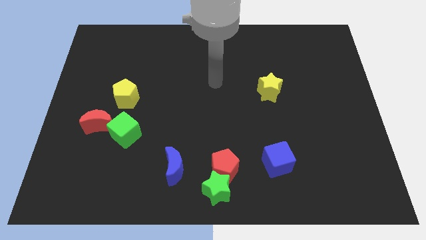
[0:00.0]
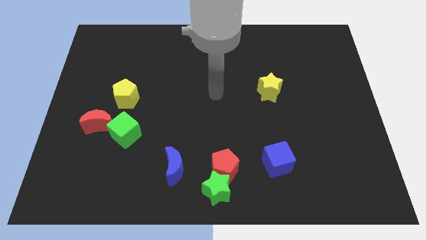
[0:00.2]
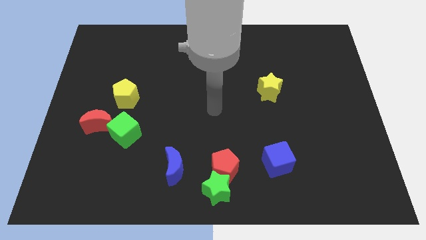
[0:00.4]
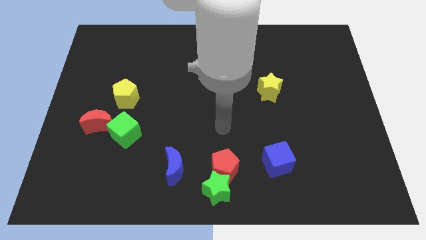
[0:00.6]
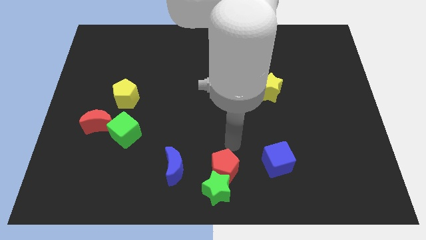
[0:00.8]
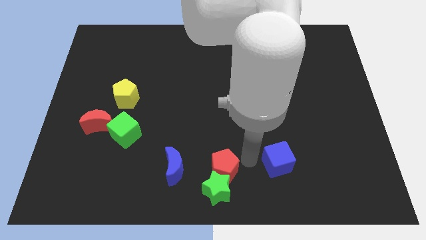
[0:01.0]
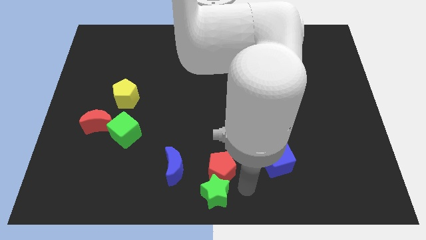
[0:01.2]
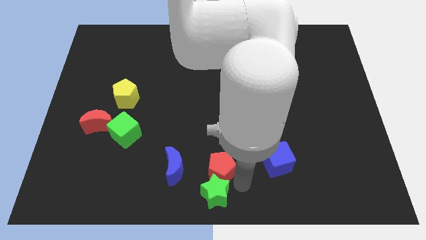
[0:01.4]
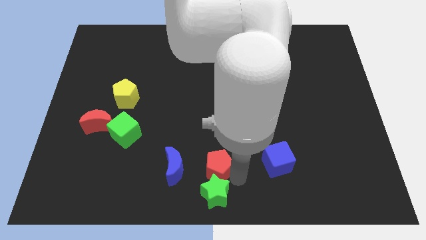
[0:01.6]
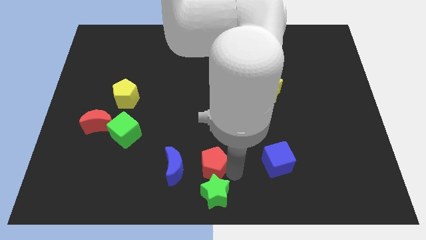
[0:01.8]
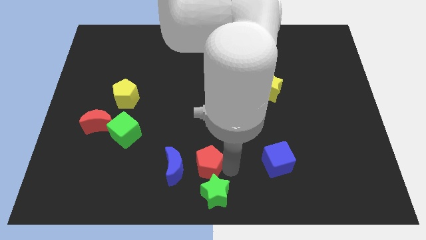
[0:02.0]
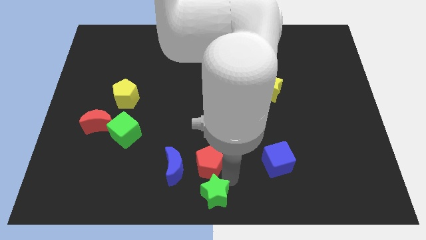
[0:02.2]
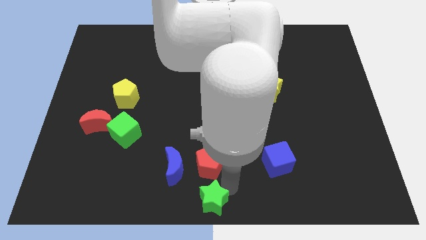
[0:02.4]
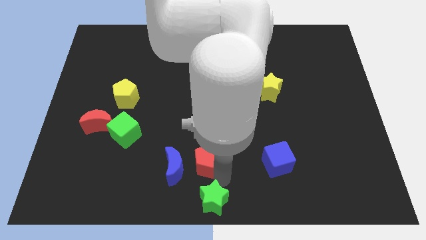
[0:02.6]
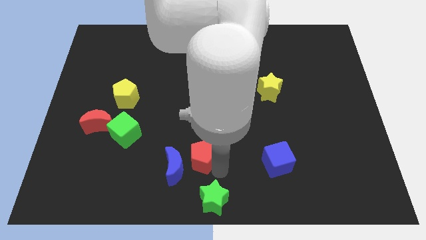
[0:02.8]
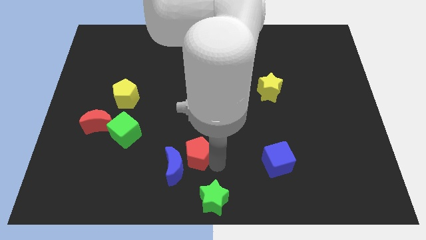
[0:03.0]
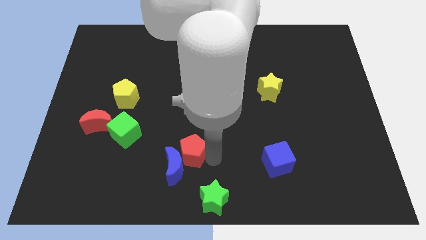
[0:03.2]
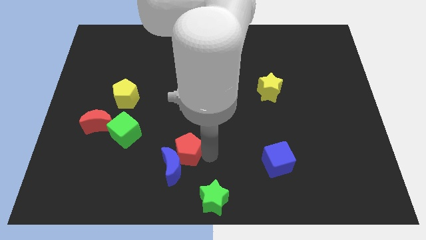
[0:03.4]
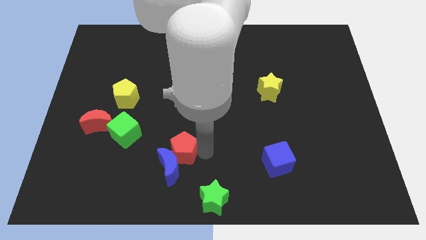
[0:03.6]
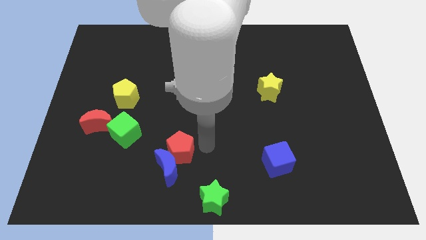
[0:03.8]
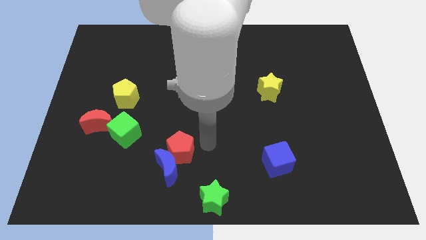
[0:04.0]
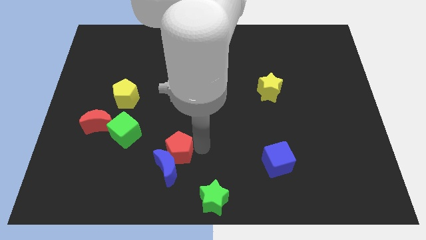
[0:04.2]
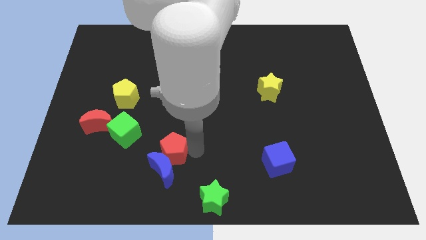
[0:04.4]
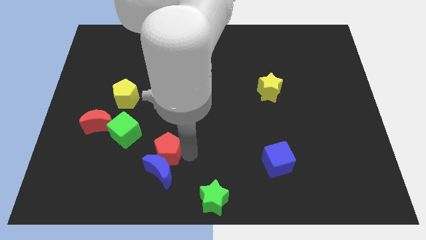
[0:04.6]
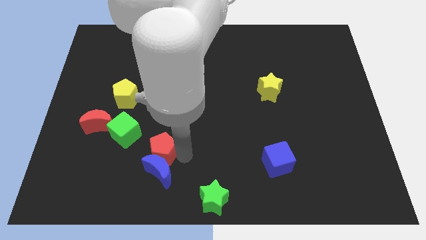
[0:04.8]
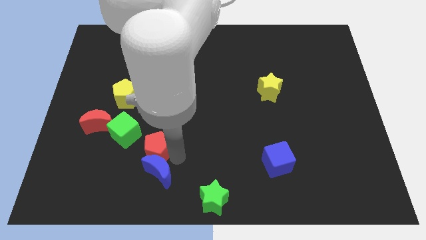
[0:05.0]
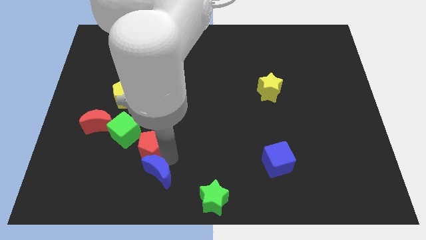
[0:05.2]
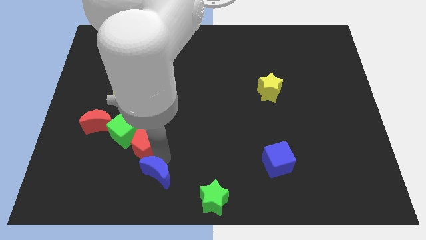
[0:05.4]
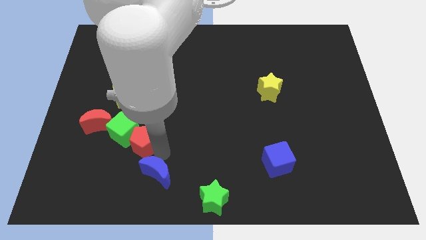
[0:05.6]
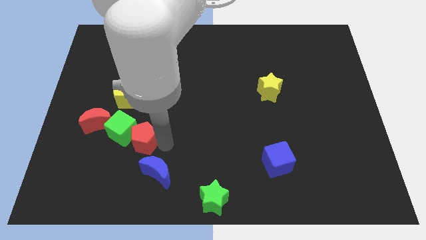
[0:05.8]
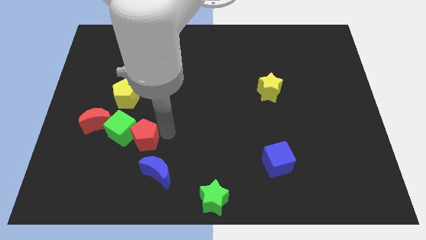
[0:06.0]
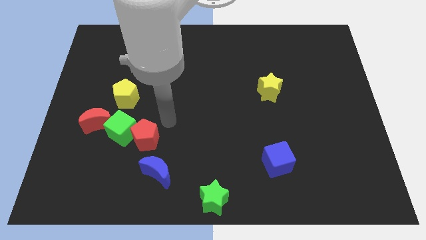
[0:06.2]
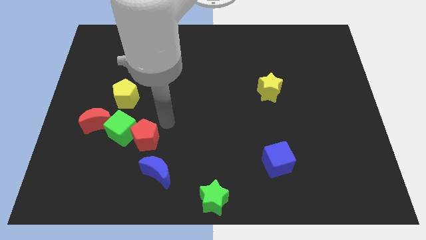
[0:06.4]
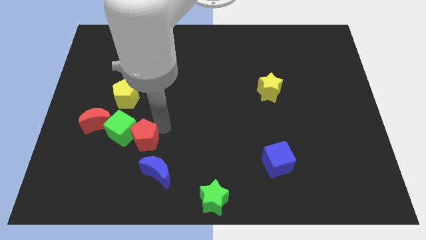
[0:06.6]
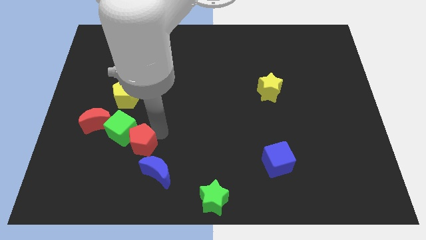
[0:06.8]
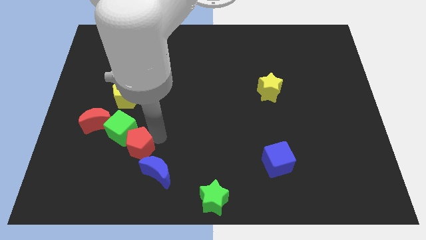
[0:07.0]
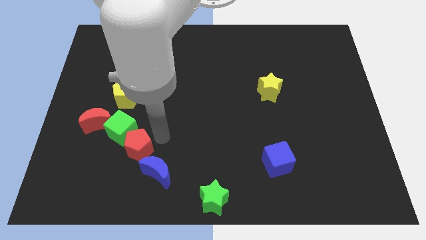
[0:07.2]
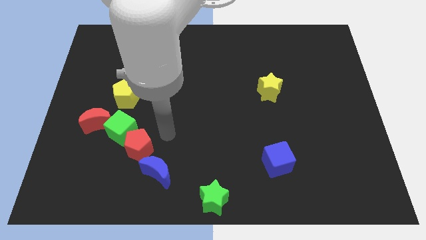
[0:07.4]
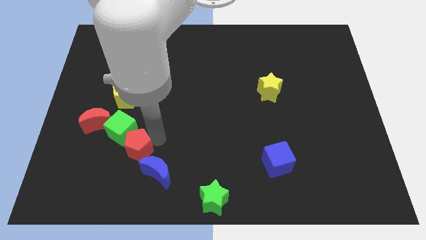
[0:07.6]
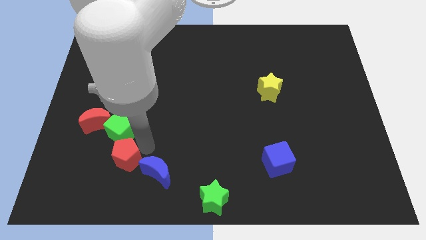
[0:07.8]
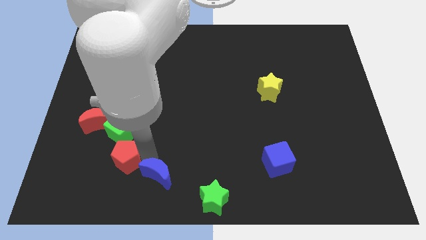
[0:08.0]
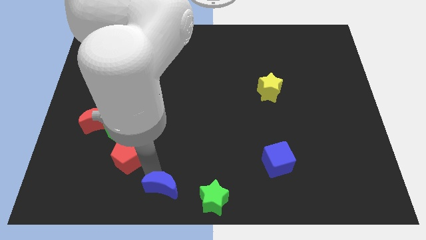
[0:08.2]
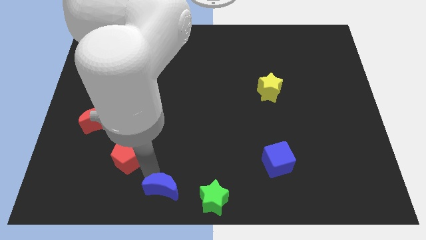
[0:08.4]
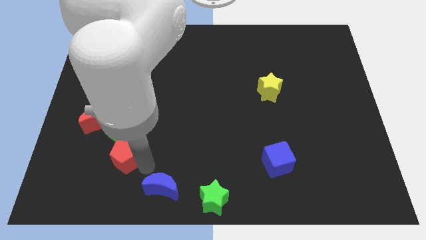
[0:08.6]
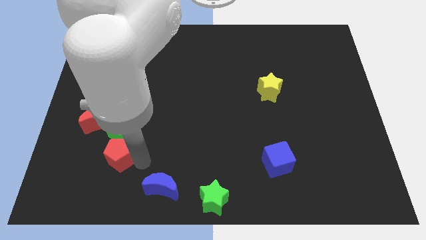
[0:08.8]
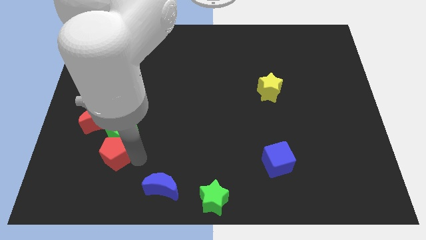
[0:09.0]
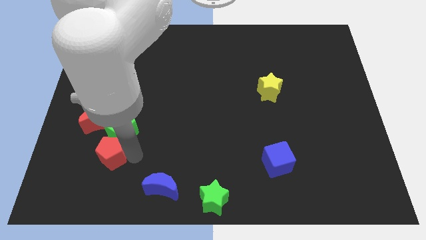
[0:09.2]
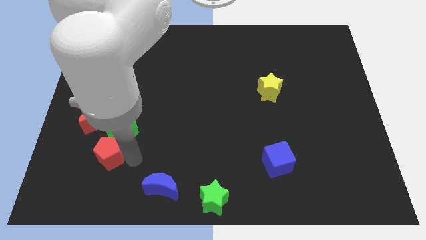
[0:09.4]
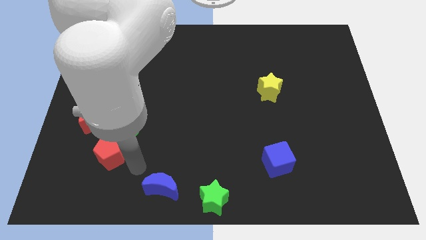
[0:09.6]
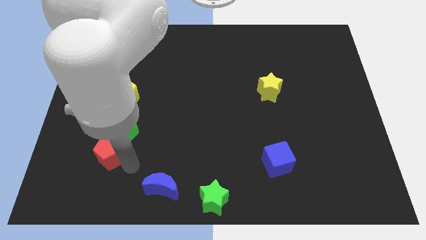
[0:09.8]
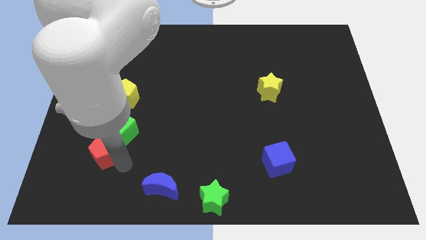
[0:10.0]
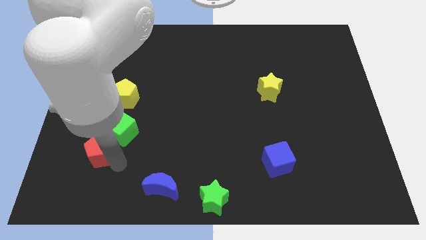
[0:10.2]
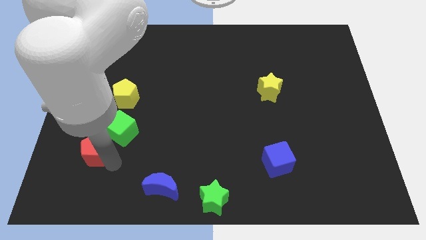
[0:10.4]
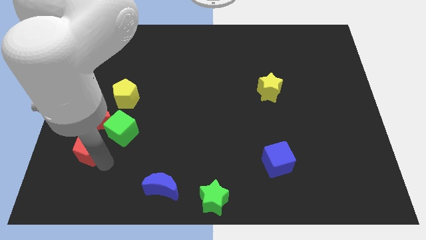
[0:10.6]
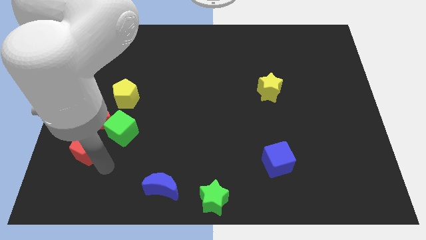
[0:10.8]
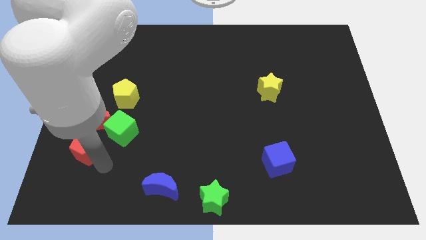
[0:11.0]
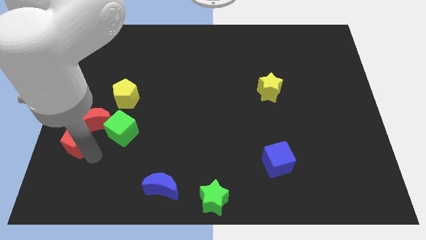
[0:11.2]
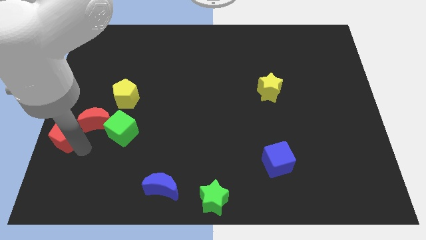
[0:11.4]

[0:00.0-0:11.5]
slide the red pentagon to the left side

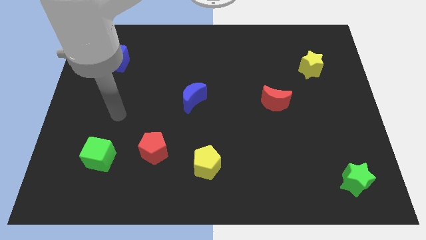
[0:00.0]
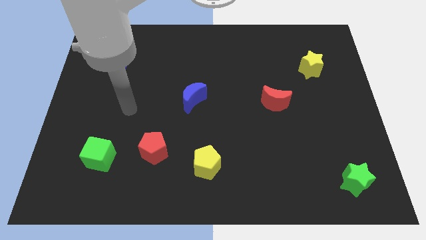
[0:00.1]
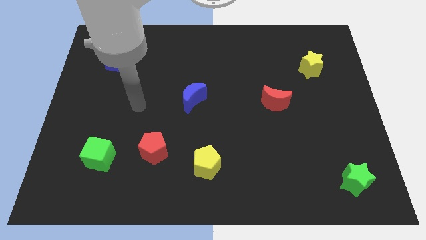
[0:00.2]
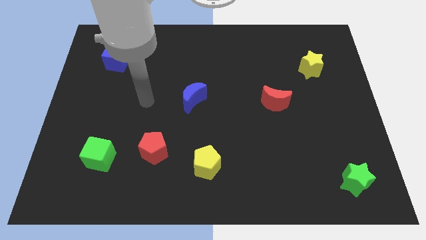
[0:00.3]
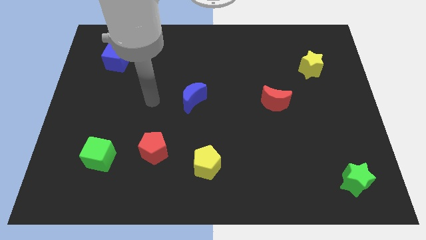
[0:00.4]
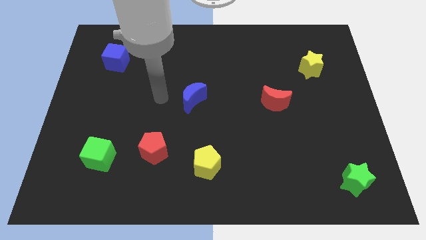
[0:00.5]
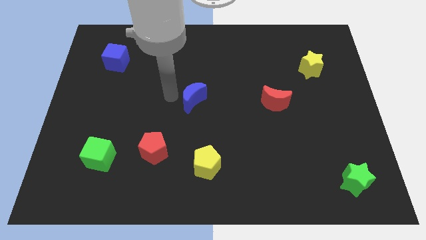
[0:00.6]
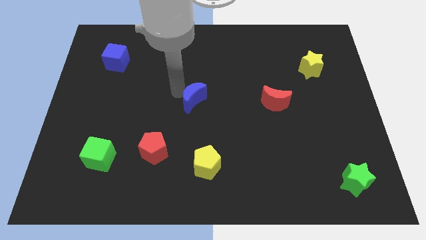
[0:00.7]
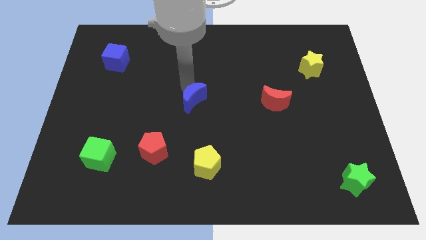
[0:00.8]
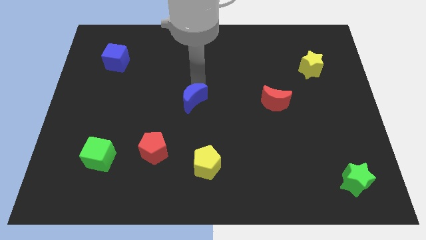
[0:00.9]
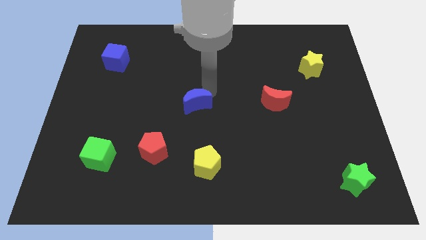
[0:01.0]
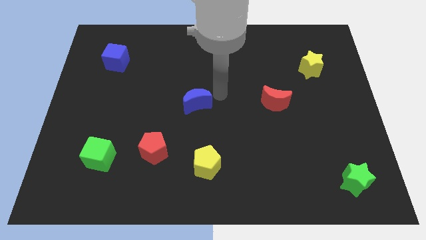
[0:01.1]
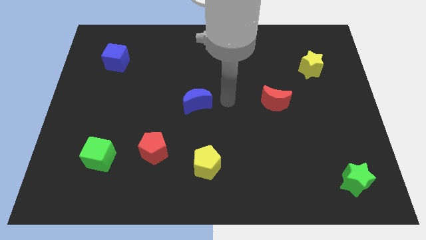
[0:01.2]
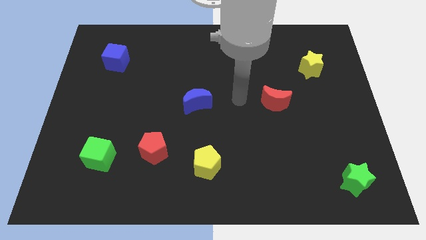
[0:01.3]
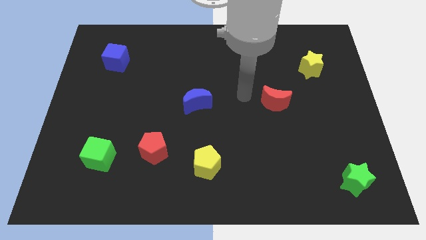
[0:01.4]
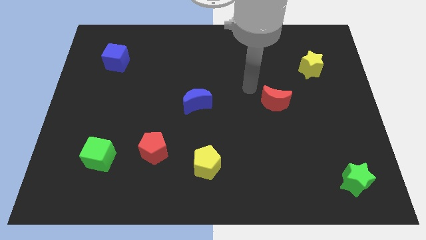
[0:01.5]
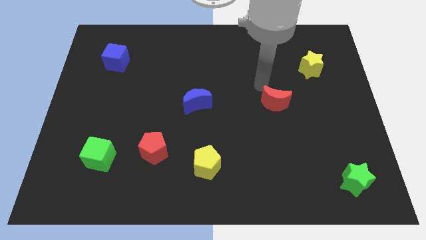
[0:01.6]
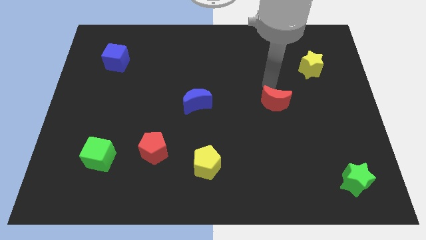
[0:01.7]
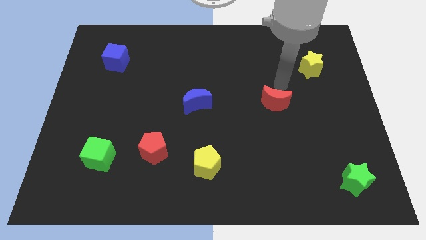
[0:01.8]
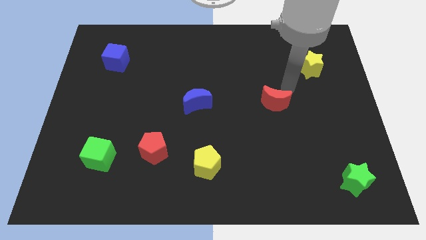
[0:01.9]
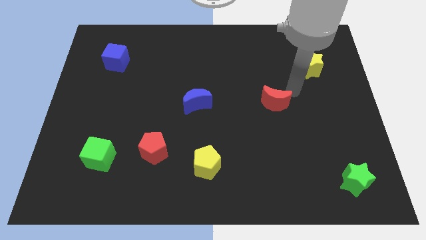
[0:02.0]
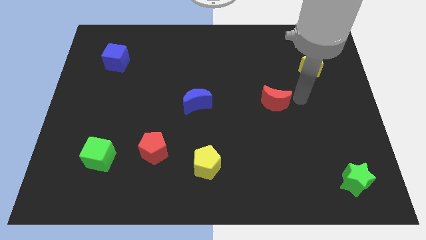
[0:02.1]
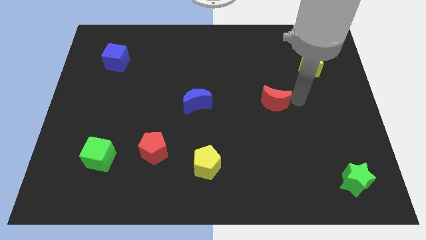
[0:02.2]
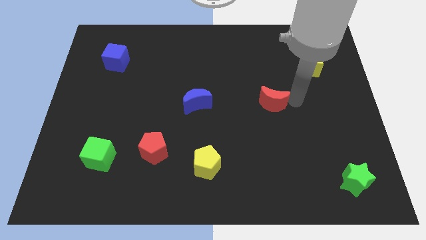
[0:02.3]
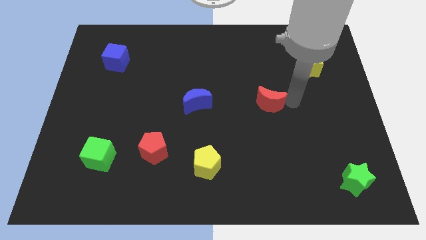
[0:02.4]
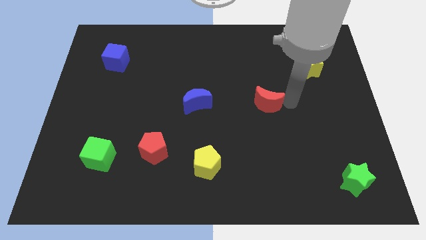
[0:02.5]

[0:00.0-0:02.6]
put the red moon to the middle
